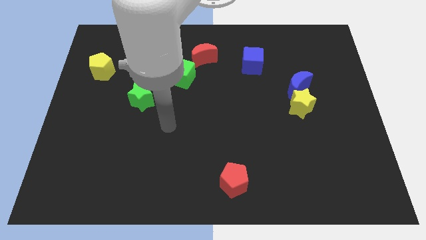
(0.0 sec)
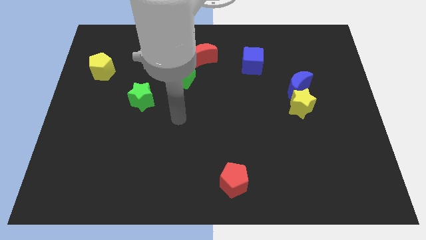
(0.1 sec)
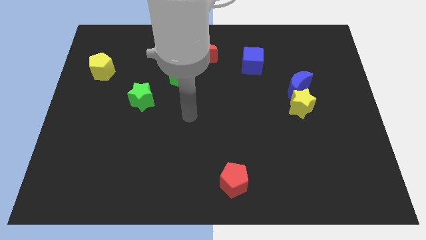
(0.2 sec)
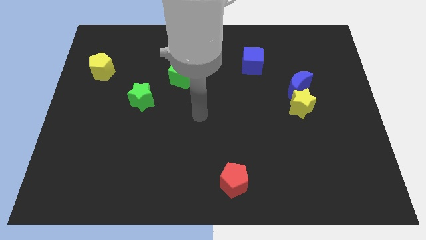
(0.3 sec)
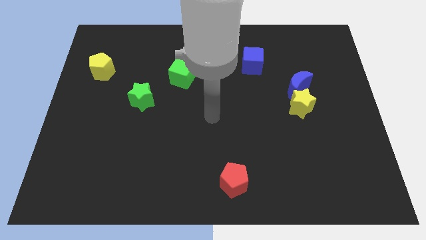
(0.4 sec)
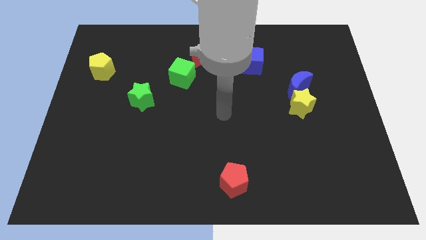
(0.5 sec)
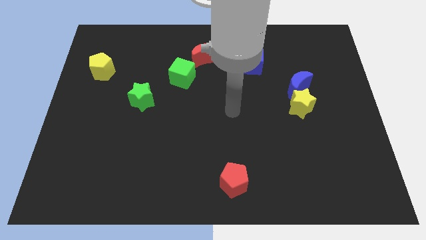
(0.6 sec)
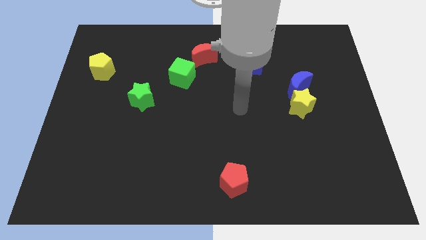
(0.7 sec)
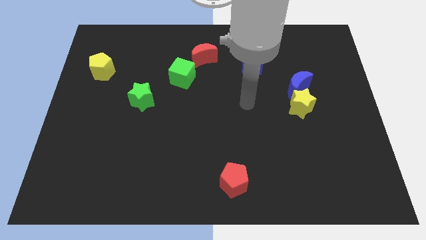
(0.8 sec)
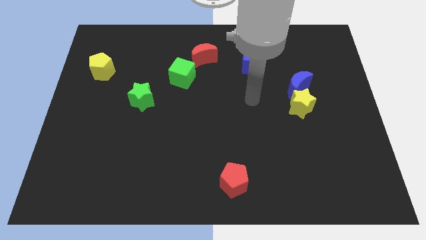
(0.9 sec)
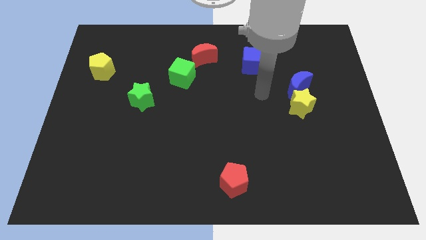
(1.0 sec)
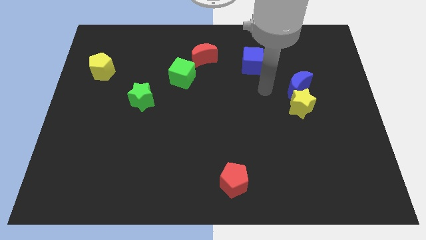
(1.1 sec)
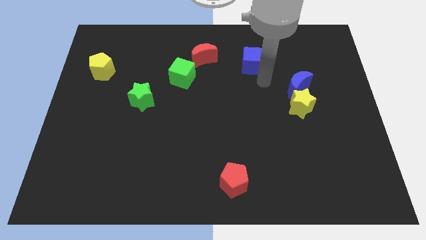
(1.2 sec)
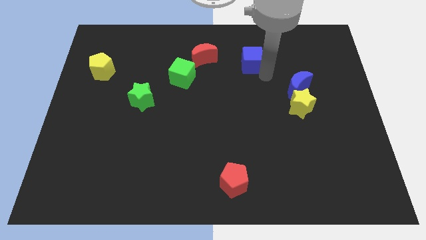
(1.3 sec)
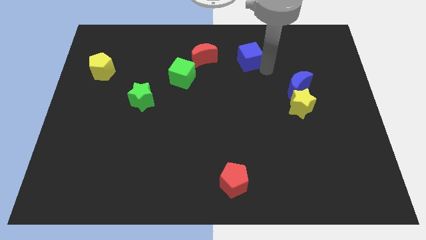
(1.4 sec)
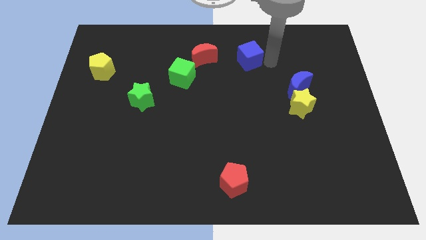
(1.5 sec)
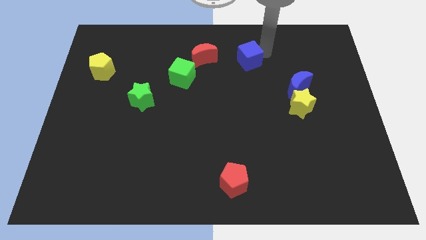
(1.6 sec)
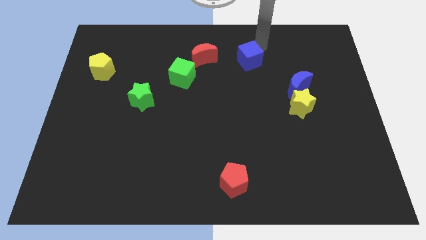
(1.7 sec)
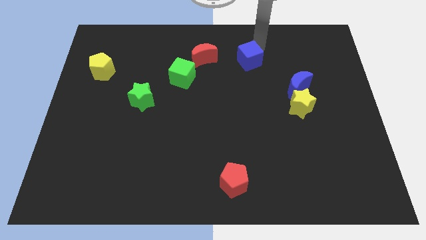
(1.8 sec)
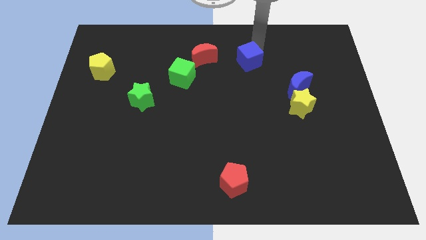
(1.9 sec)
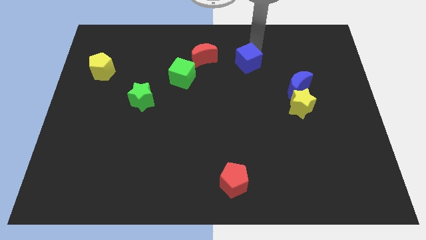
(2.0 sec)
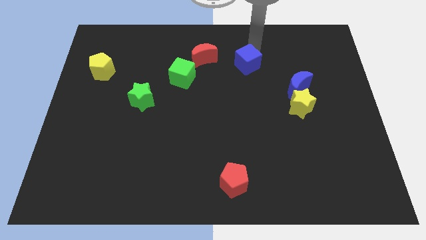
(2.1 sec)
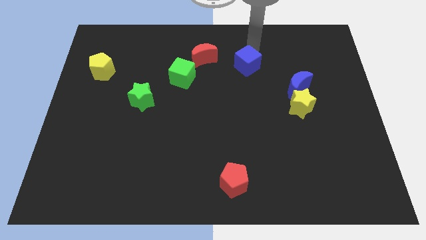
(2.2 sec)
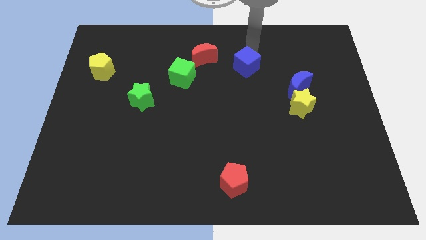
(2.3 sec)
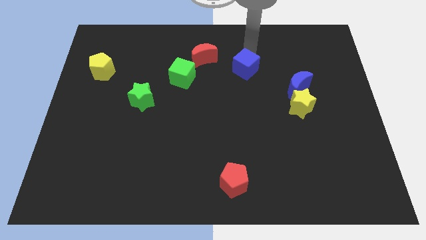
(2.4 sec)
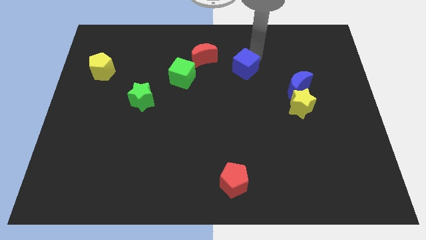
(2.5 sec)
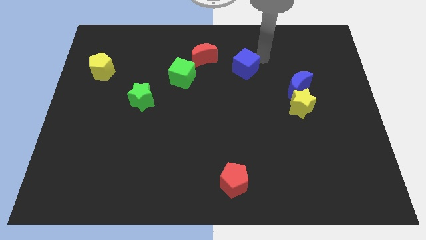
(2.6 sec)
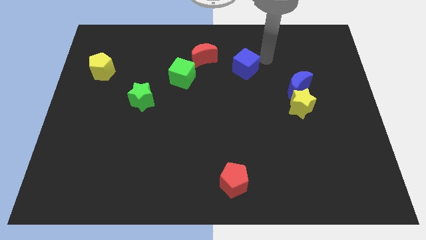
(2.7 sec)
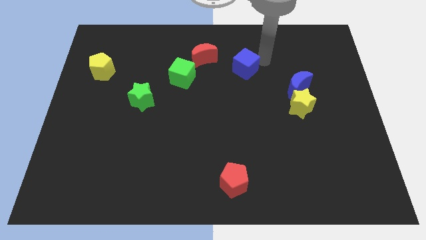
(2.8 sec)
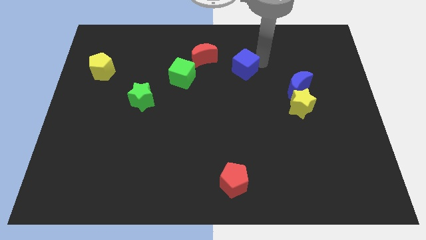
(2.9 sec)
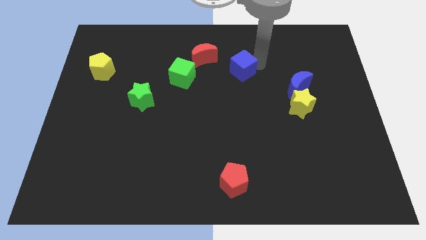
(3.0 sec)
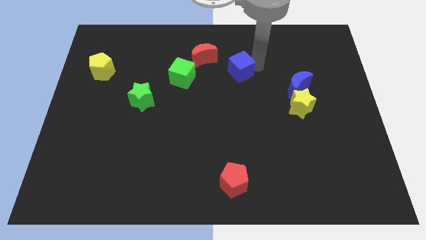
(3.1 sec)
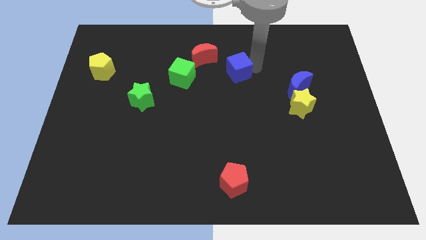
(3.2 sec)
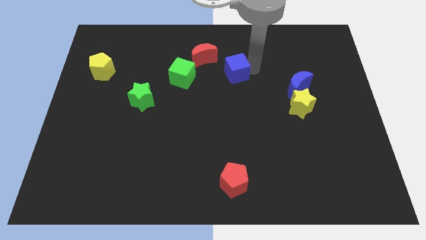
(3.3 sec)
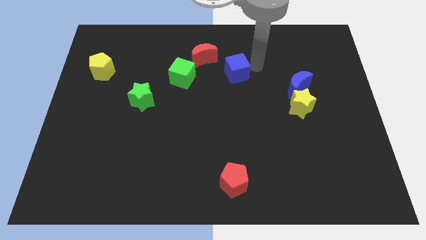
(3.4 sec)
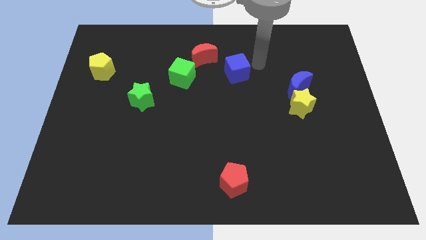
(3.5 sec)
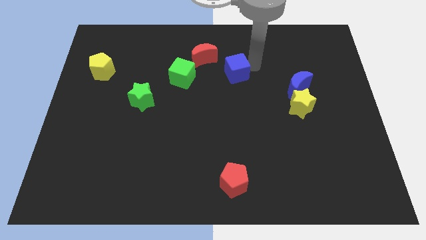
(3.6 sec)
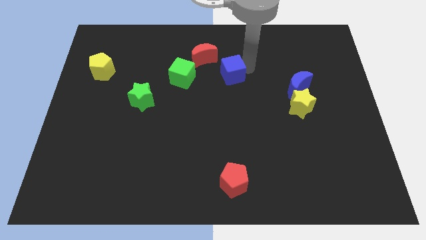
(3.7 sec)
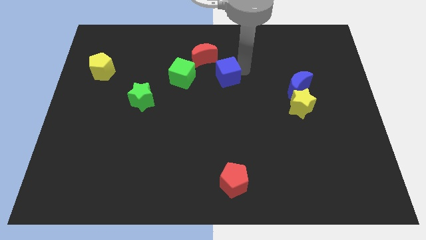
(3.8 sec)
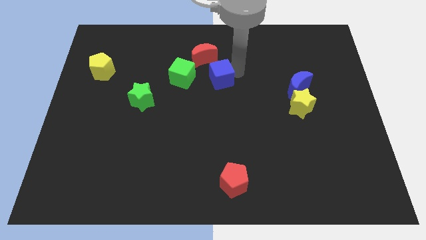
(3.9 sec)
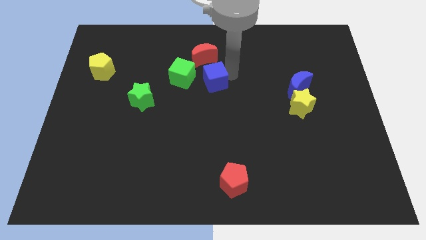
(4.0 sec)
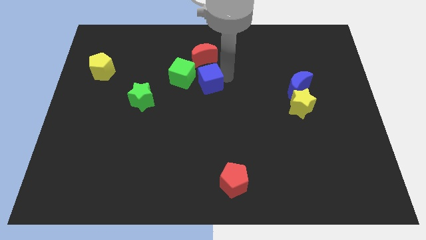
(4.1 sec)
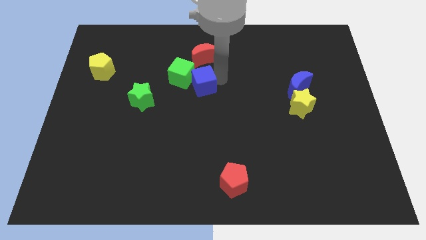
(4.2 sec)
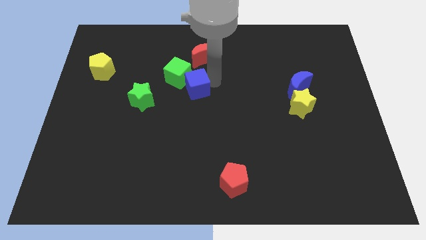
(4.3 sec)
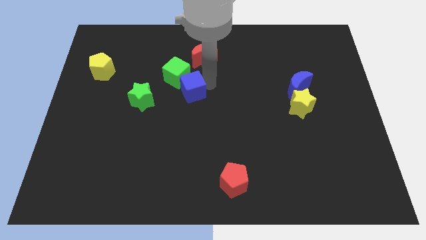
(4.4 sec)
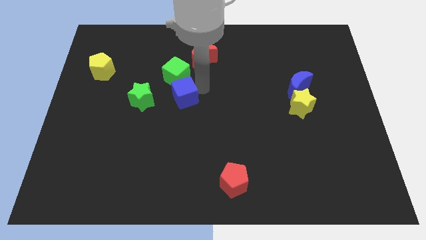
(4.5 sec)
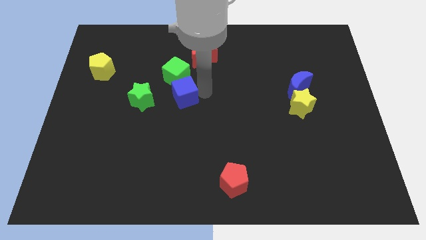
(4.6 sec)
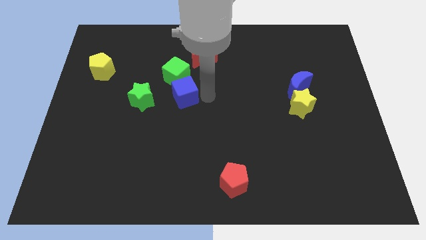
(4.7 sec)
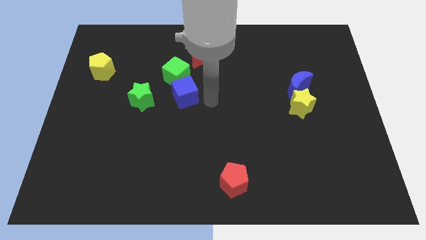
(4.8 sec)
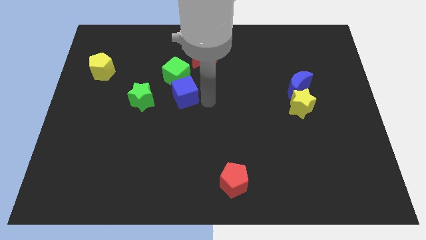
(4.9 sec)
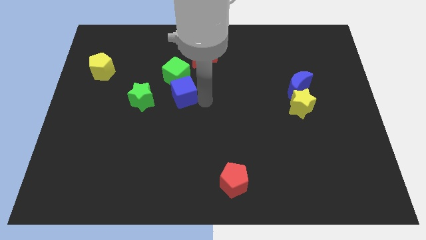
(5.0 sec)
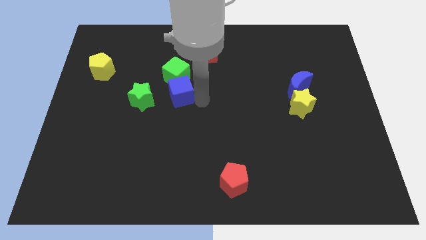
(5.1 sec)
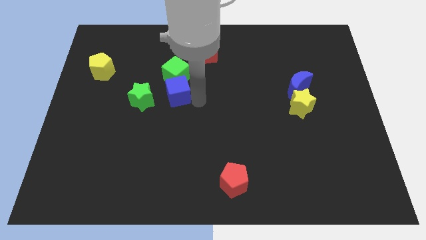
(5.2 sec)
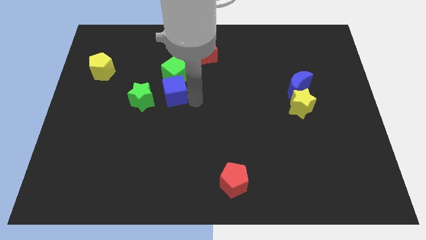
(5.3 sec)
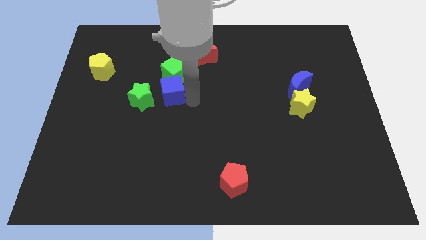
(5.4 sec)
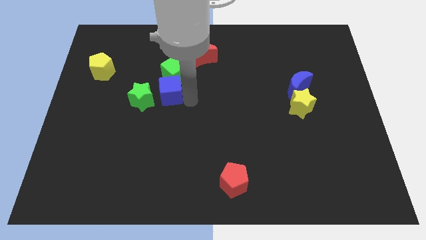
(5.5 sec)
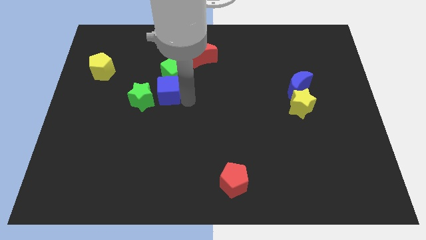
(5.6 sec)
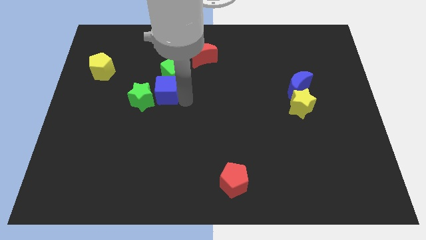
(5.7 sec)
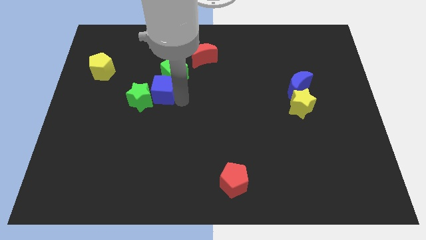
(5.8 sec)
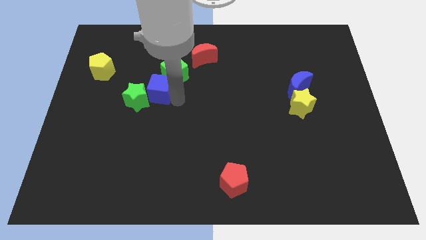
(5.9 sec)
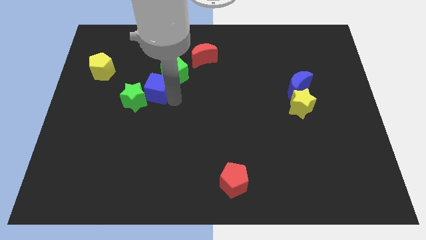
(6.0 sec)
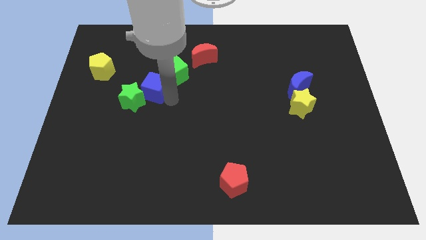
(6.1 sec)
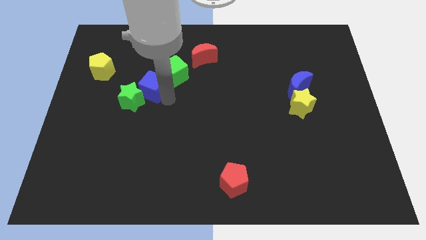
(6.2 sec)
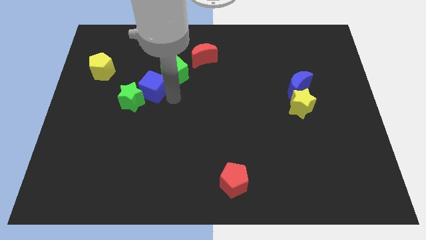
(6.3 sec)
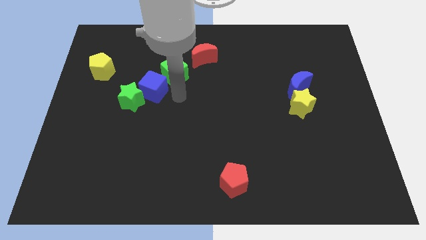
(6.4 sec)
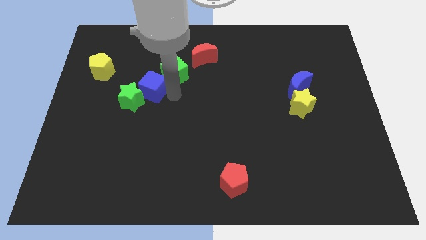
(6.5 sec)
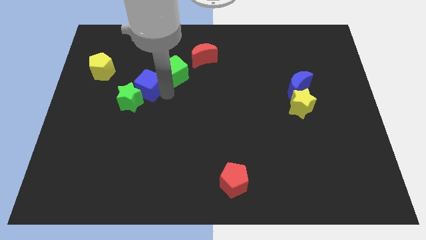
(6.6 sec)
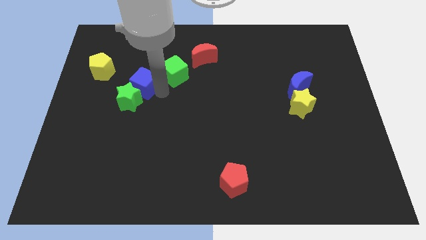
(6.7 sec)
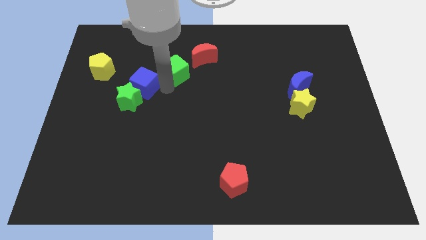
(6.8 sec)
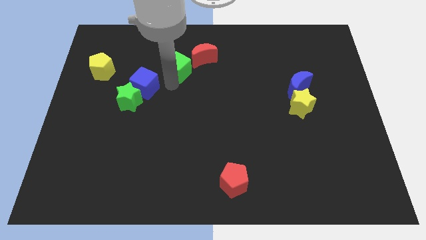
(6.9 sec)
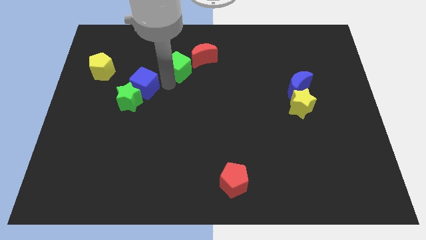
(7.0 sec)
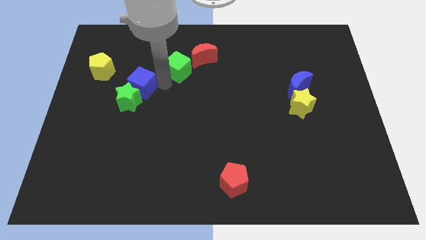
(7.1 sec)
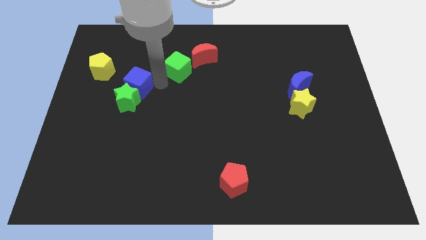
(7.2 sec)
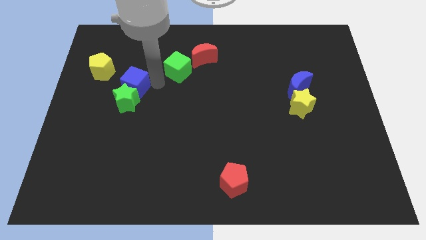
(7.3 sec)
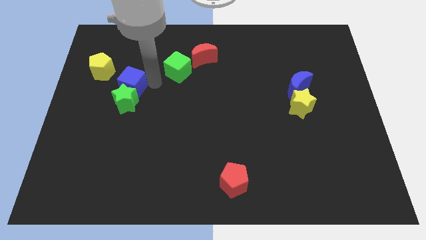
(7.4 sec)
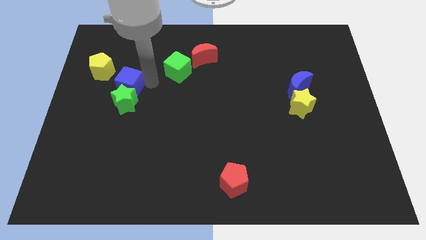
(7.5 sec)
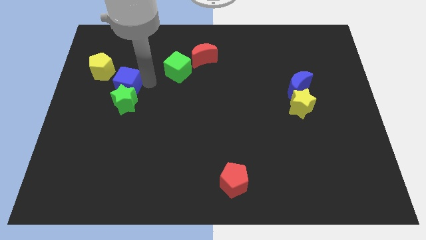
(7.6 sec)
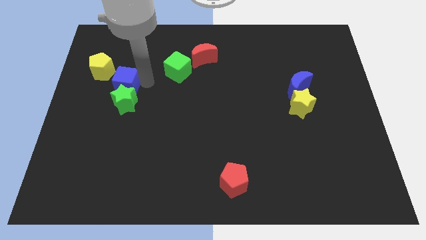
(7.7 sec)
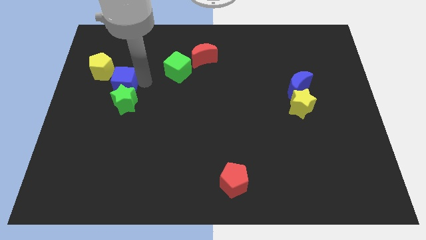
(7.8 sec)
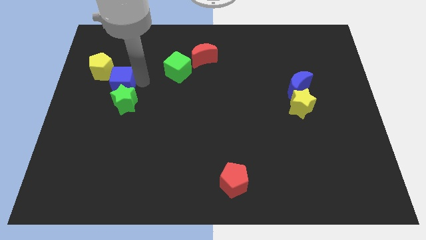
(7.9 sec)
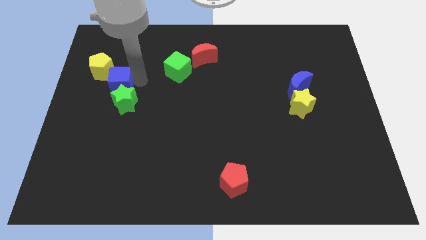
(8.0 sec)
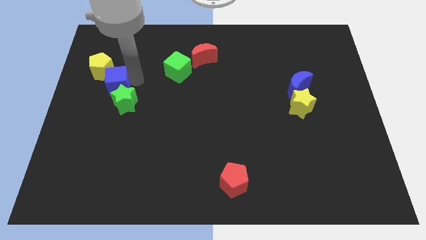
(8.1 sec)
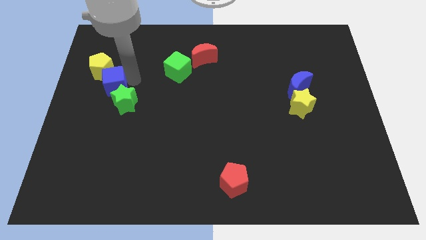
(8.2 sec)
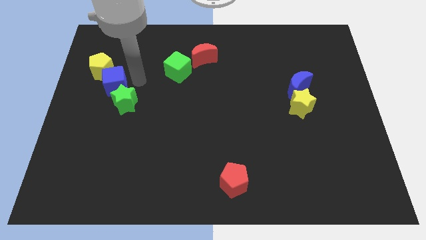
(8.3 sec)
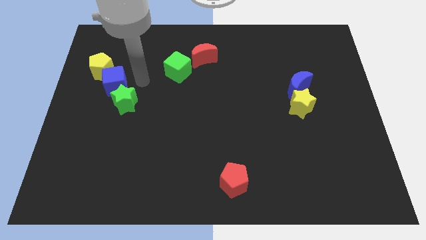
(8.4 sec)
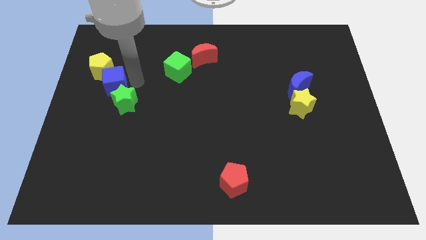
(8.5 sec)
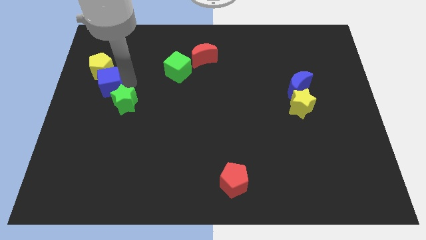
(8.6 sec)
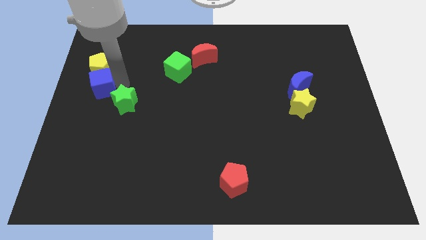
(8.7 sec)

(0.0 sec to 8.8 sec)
push the blue cube to the center left
